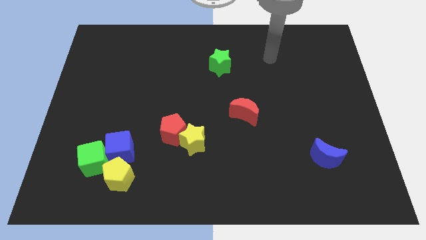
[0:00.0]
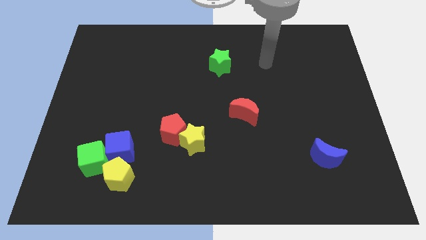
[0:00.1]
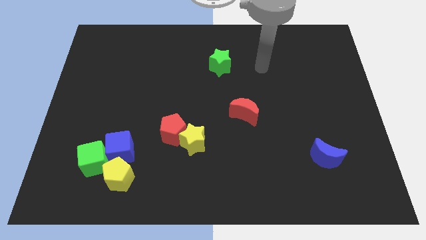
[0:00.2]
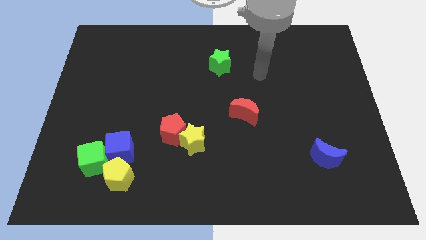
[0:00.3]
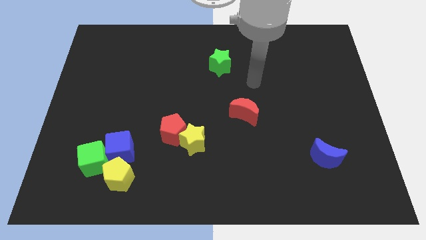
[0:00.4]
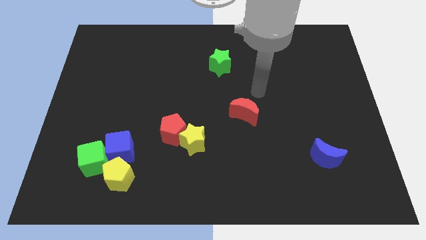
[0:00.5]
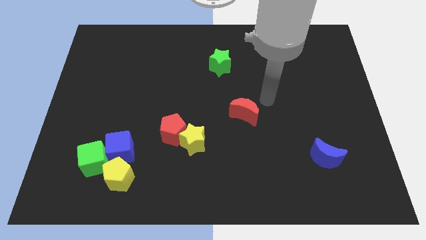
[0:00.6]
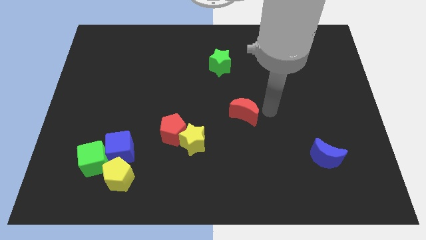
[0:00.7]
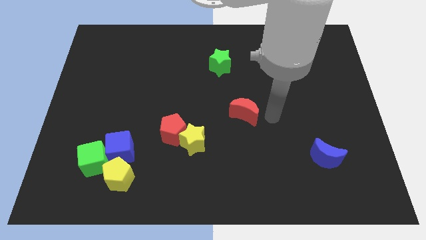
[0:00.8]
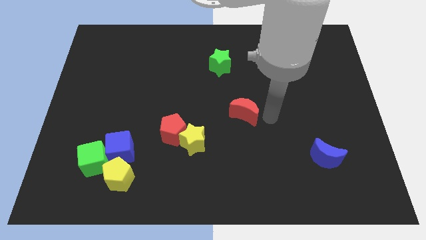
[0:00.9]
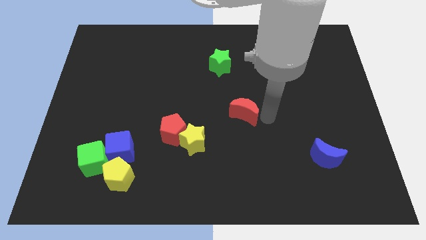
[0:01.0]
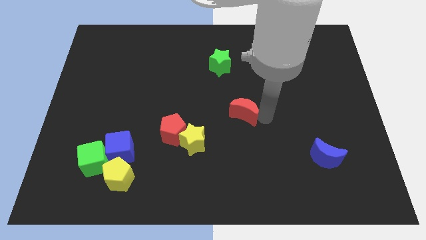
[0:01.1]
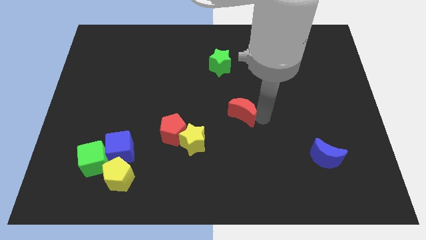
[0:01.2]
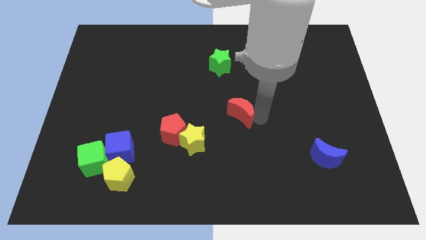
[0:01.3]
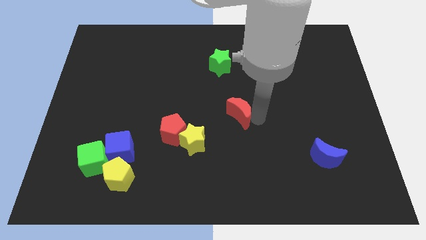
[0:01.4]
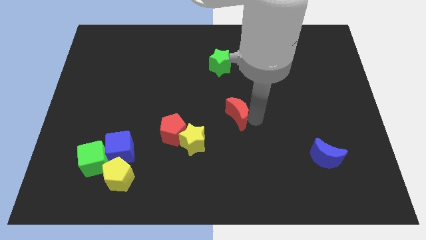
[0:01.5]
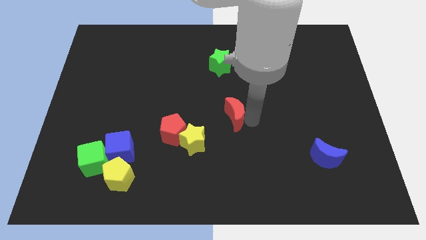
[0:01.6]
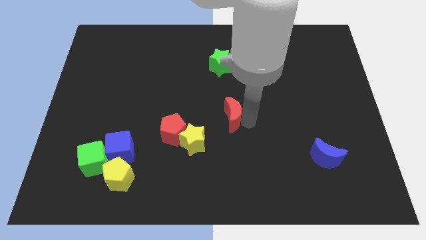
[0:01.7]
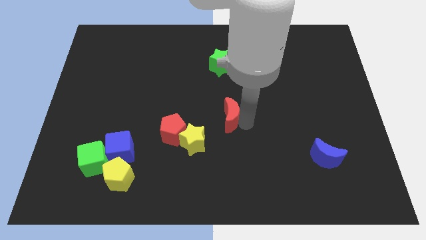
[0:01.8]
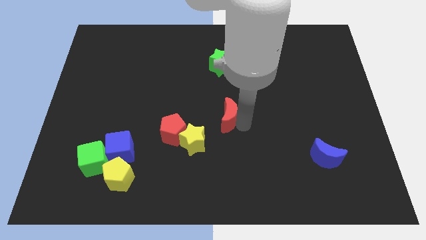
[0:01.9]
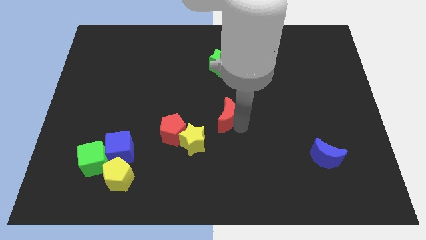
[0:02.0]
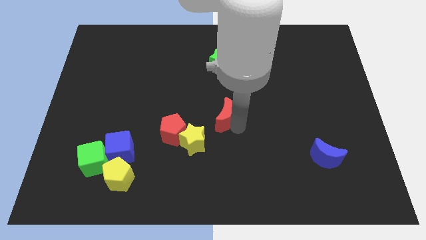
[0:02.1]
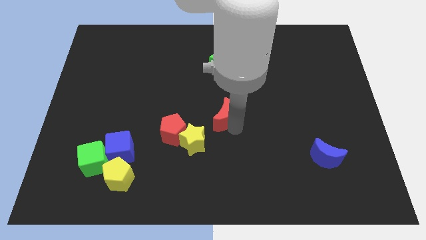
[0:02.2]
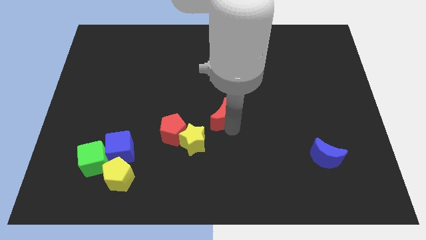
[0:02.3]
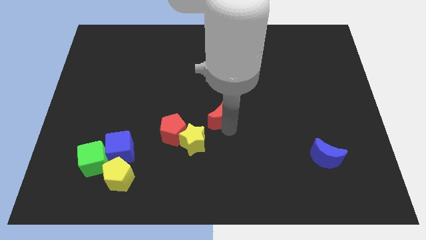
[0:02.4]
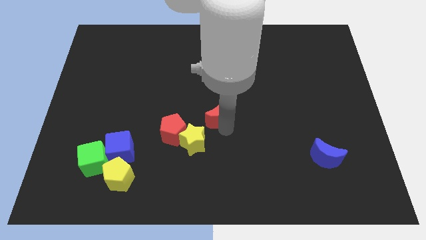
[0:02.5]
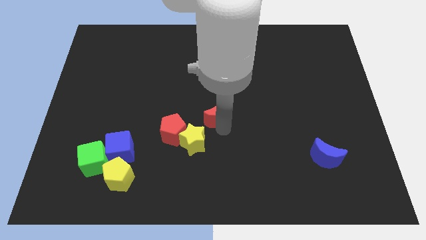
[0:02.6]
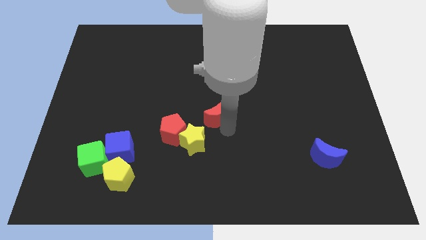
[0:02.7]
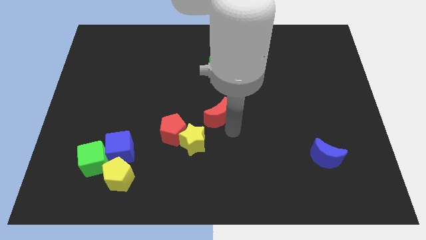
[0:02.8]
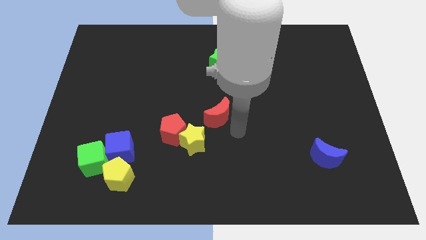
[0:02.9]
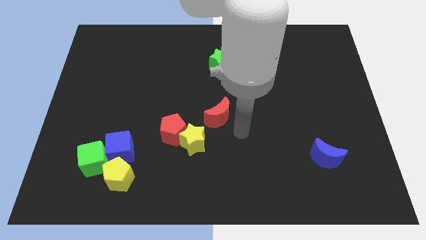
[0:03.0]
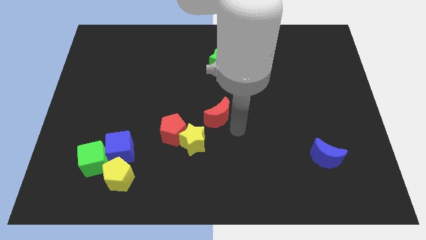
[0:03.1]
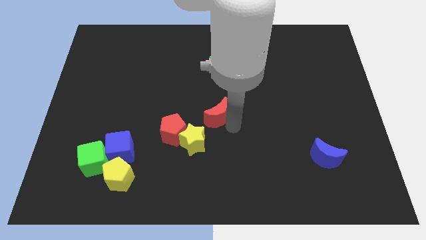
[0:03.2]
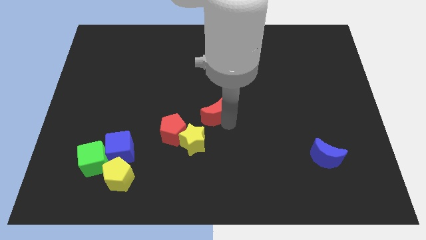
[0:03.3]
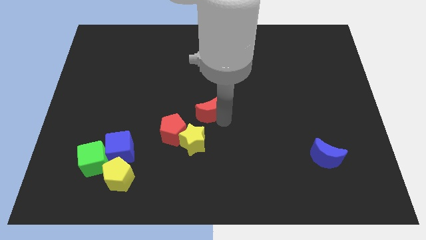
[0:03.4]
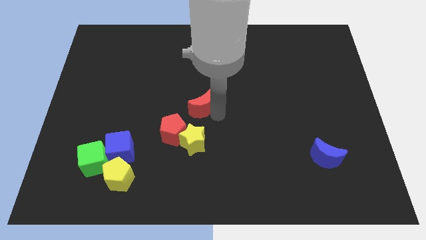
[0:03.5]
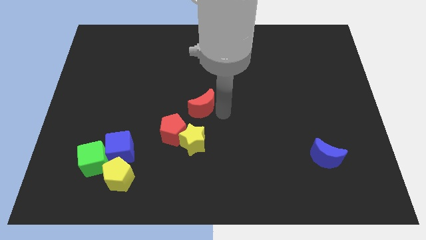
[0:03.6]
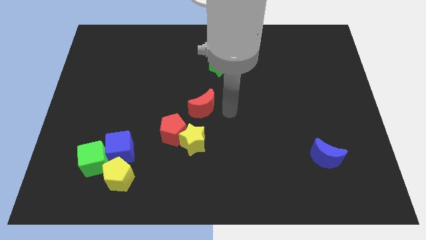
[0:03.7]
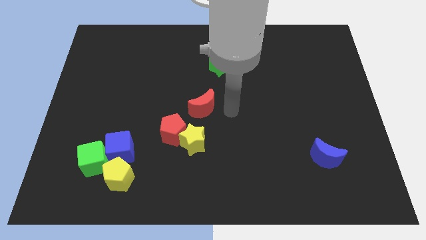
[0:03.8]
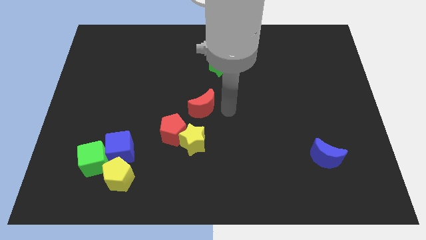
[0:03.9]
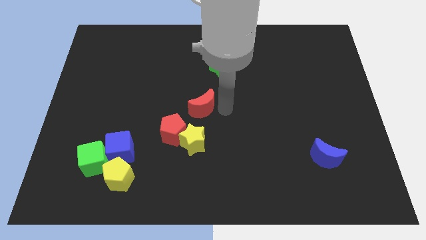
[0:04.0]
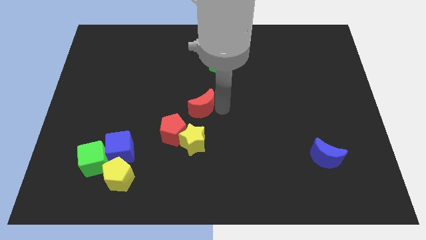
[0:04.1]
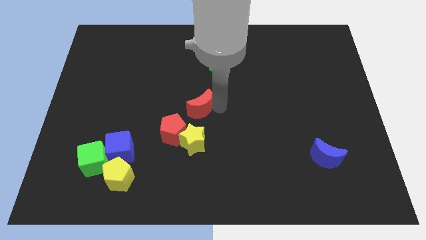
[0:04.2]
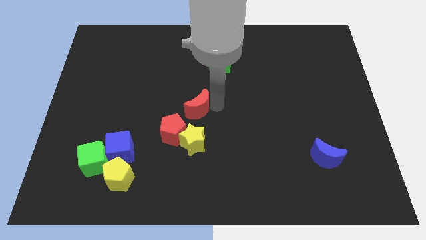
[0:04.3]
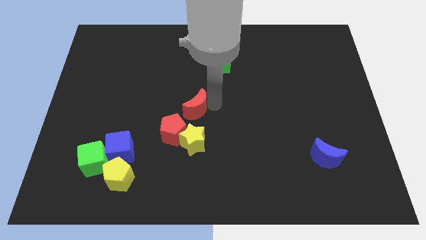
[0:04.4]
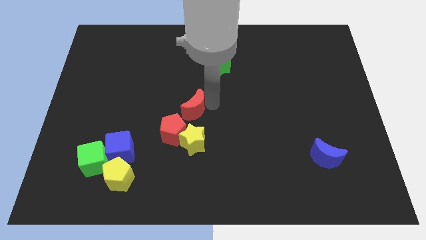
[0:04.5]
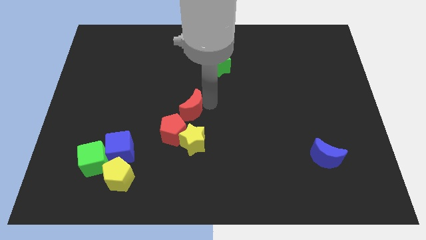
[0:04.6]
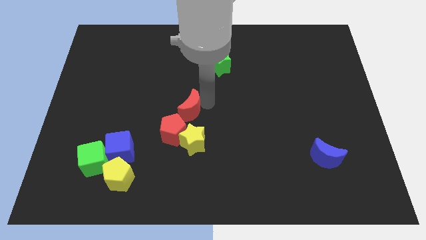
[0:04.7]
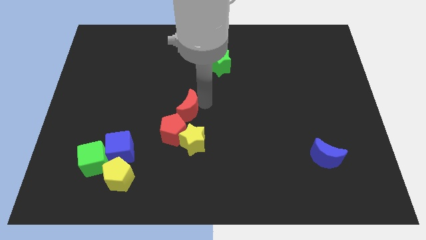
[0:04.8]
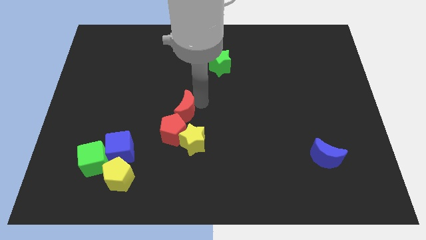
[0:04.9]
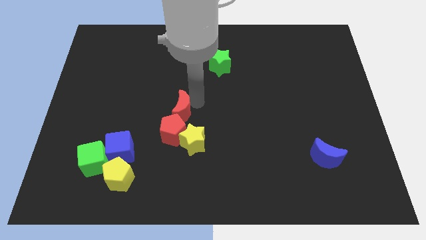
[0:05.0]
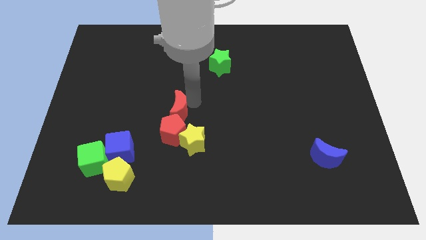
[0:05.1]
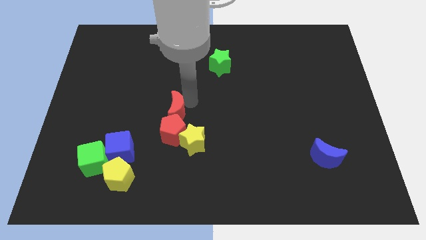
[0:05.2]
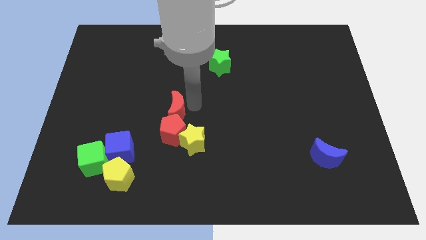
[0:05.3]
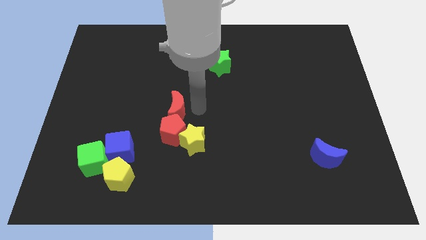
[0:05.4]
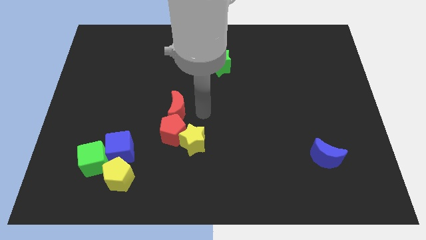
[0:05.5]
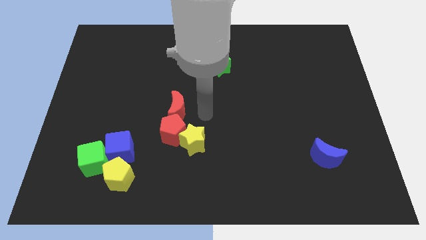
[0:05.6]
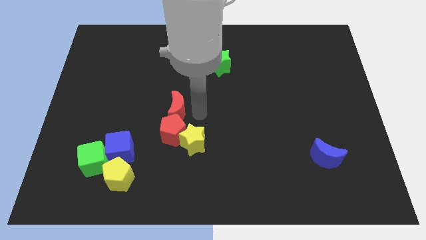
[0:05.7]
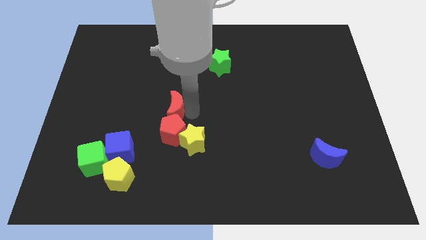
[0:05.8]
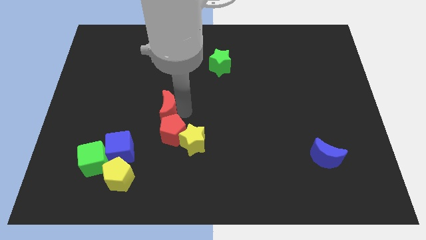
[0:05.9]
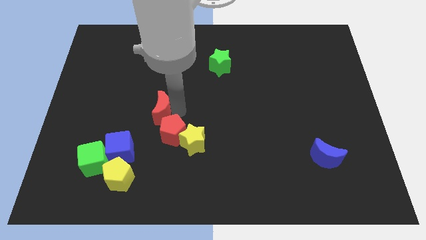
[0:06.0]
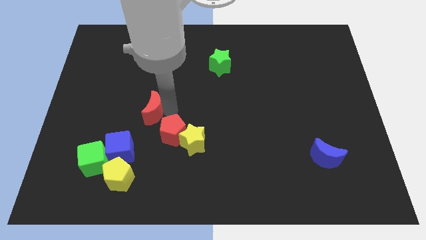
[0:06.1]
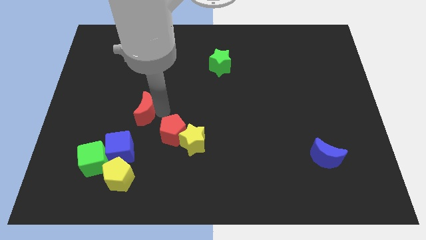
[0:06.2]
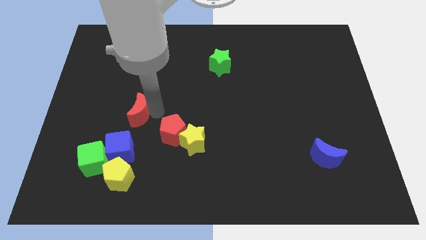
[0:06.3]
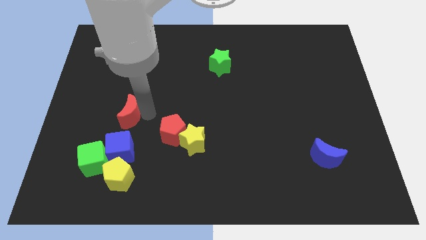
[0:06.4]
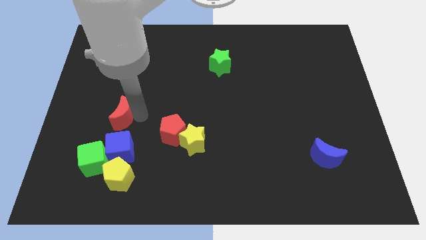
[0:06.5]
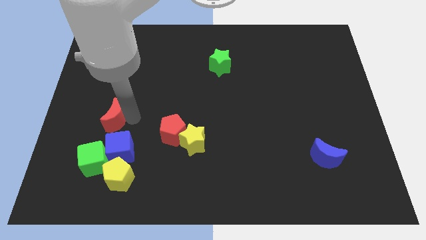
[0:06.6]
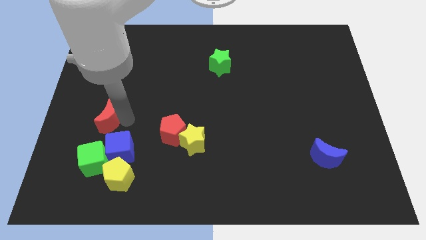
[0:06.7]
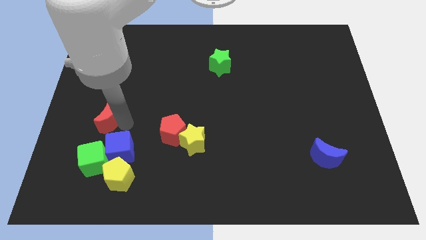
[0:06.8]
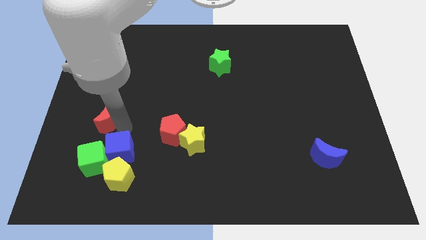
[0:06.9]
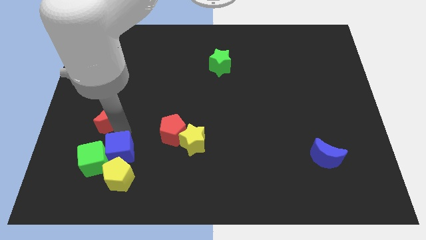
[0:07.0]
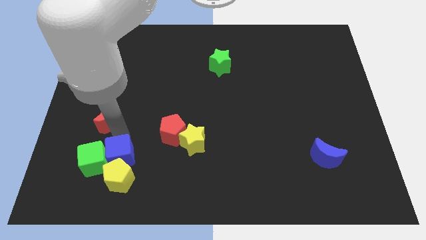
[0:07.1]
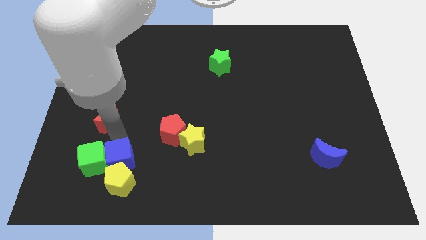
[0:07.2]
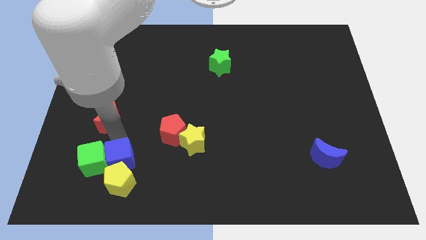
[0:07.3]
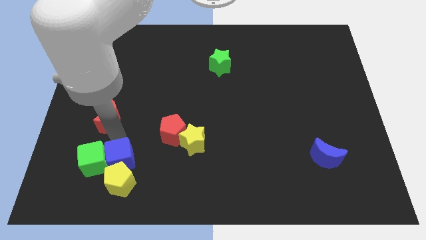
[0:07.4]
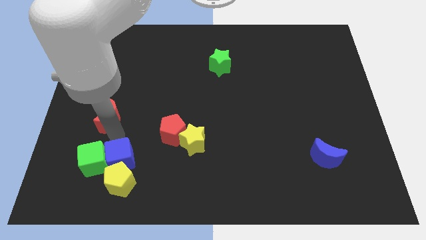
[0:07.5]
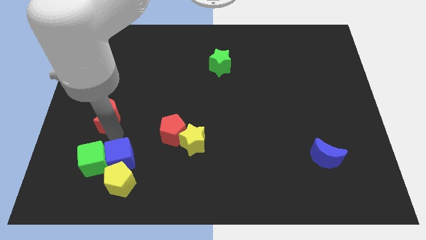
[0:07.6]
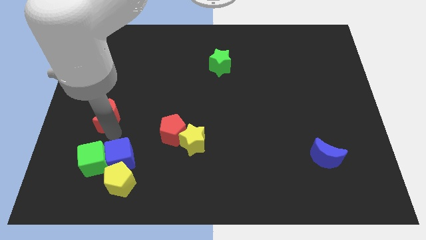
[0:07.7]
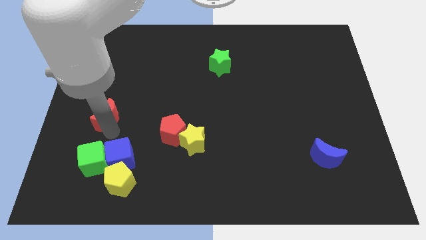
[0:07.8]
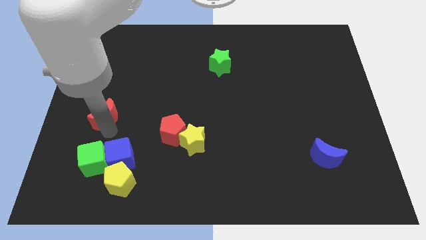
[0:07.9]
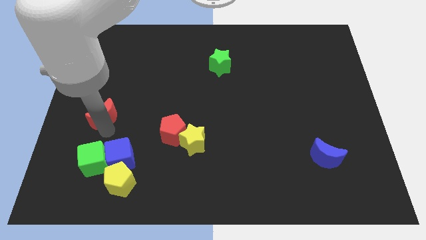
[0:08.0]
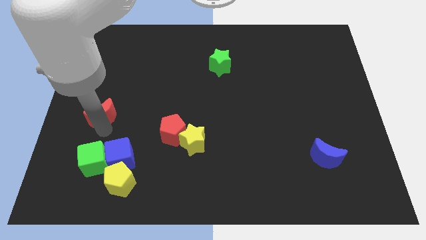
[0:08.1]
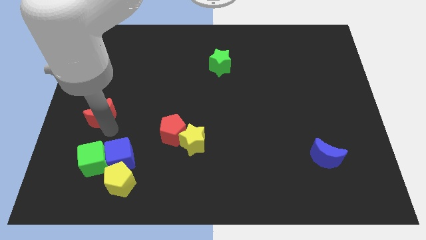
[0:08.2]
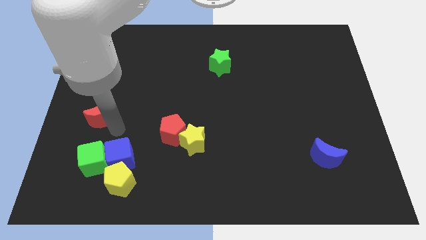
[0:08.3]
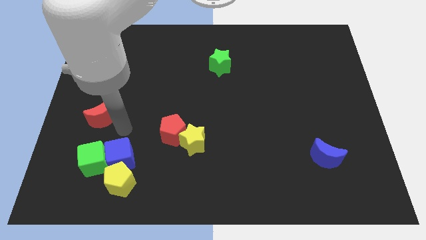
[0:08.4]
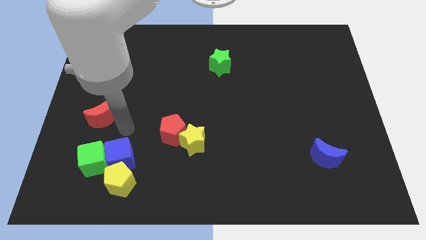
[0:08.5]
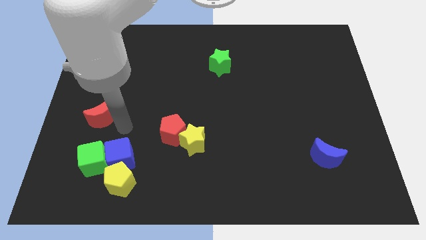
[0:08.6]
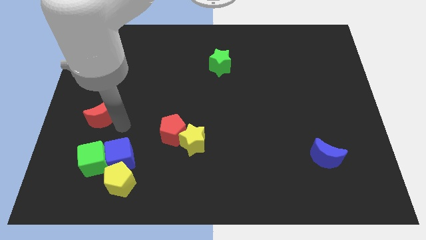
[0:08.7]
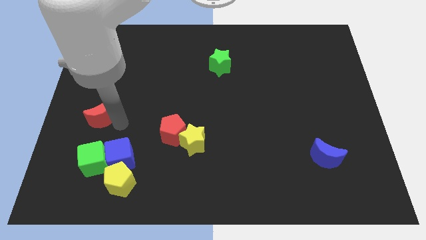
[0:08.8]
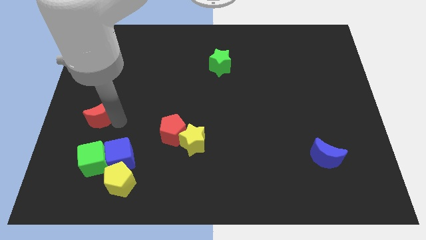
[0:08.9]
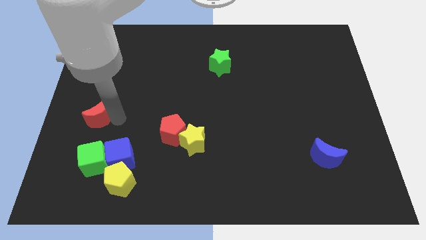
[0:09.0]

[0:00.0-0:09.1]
push the red moon to the left side
